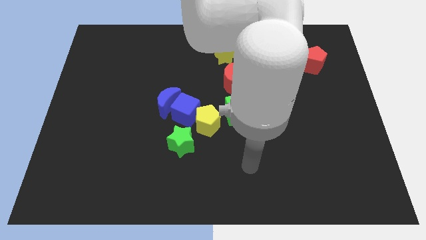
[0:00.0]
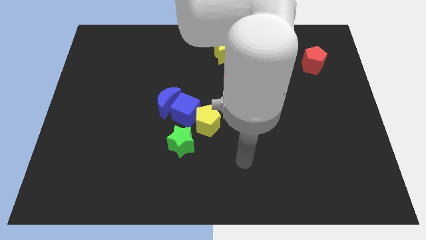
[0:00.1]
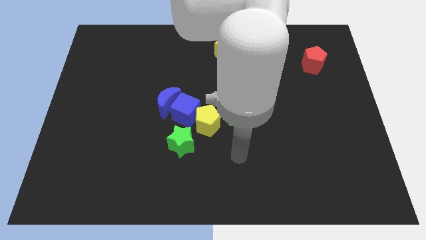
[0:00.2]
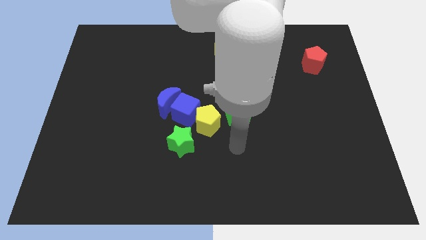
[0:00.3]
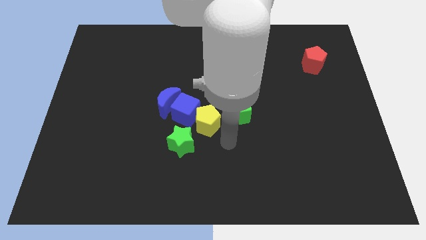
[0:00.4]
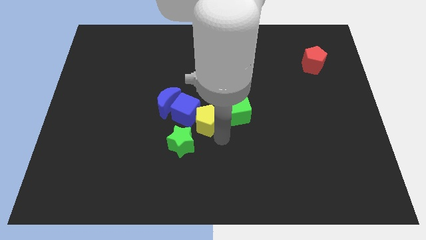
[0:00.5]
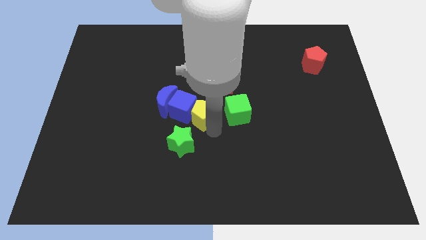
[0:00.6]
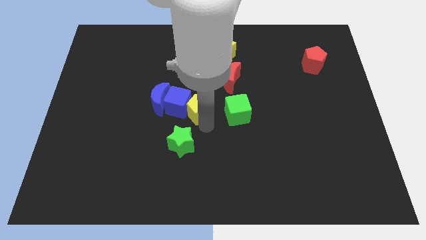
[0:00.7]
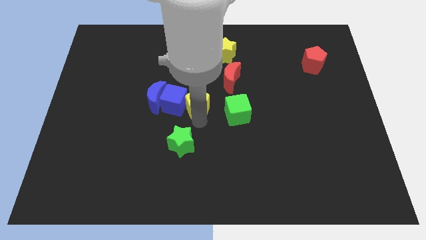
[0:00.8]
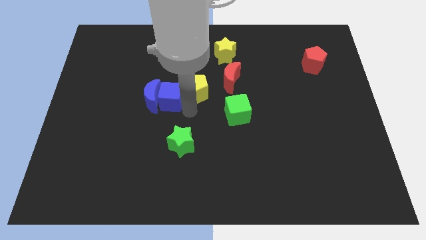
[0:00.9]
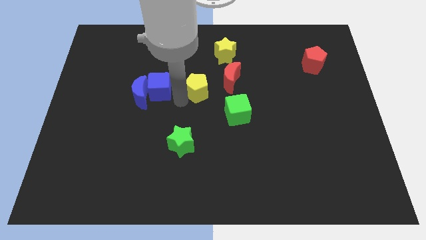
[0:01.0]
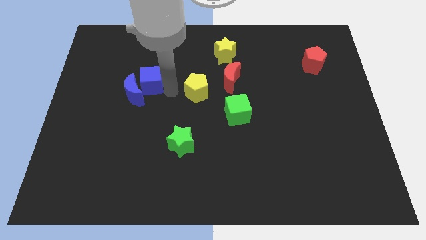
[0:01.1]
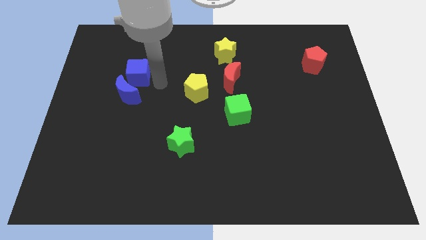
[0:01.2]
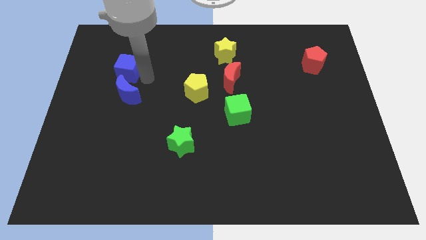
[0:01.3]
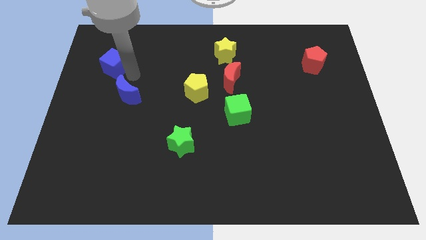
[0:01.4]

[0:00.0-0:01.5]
move the blue moon away from the blue cube

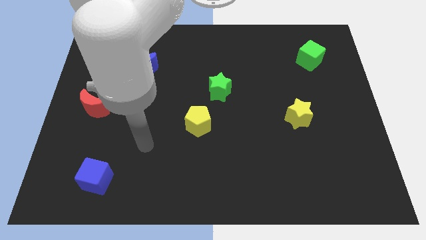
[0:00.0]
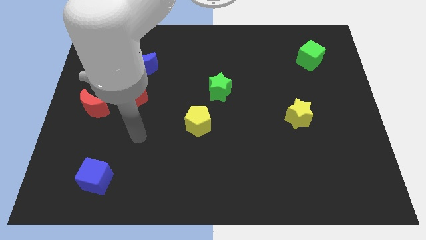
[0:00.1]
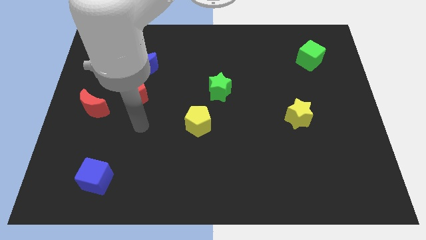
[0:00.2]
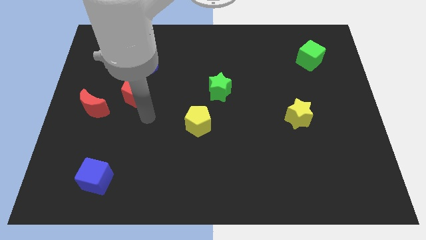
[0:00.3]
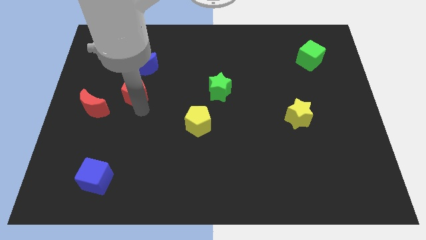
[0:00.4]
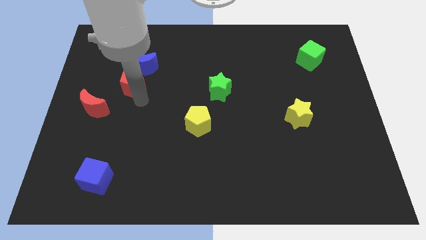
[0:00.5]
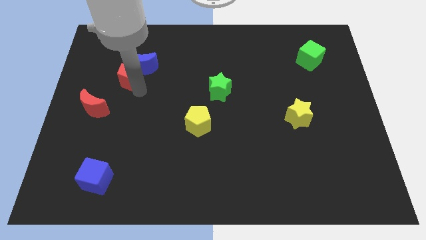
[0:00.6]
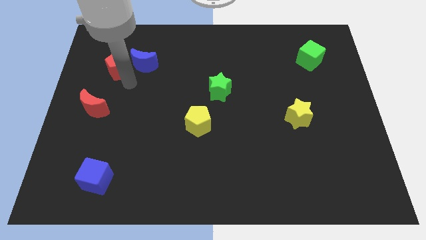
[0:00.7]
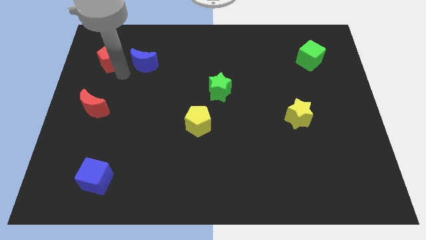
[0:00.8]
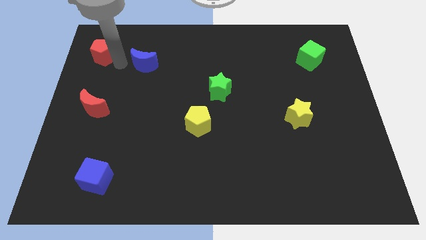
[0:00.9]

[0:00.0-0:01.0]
separate the blue moon from the red pentagon

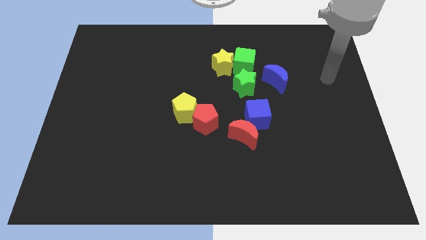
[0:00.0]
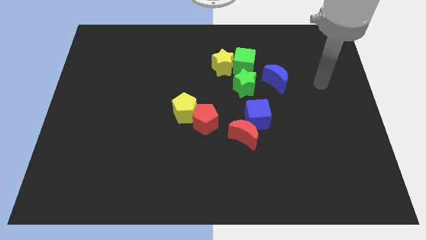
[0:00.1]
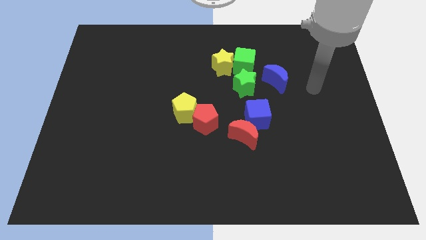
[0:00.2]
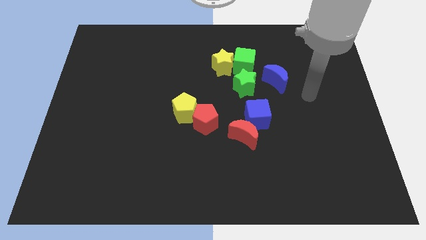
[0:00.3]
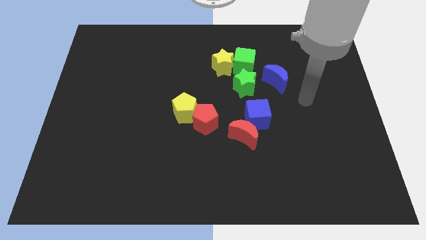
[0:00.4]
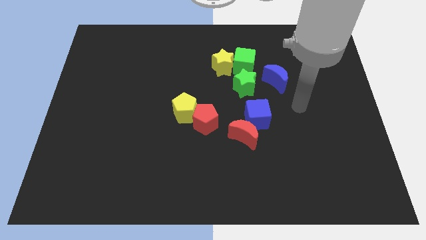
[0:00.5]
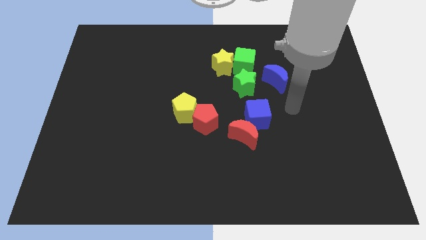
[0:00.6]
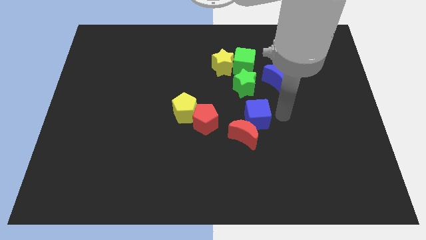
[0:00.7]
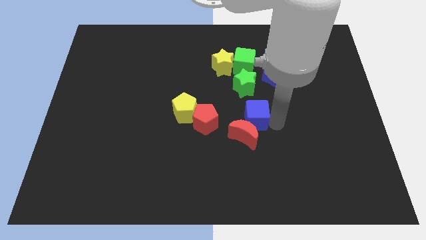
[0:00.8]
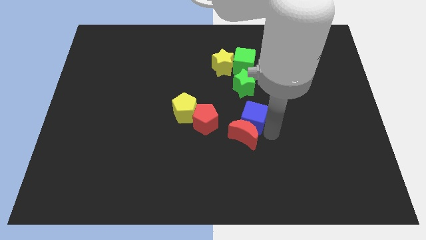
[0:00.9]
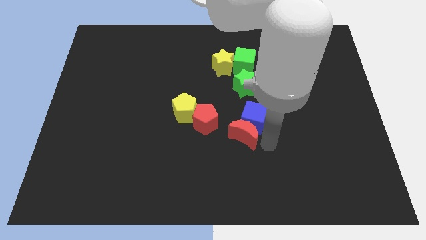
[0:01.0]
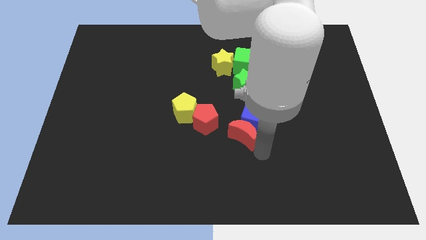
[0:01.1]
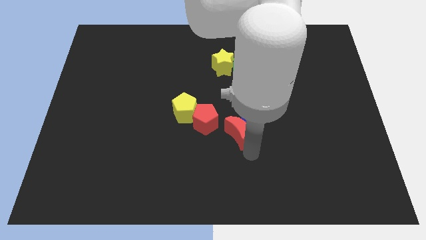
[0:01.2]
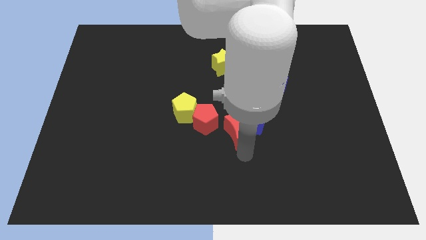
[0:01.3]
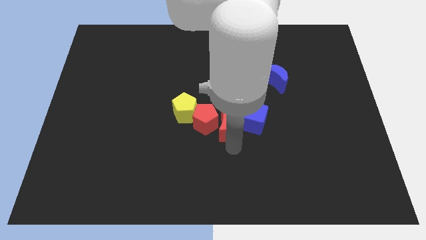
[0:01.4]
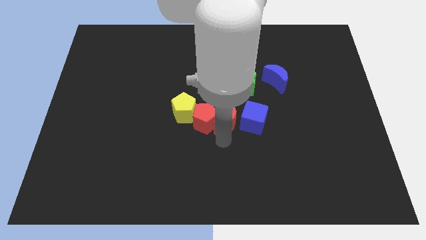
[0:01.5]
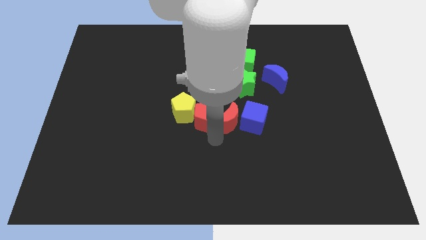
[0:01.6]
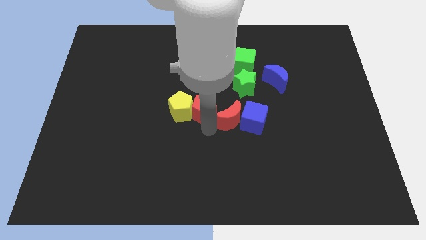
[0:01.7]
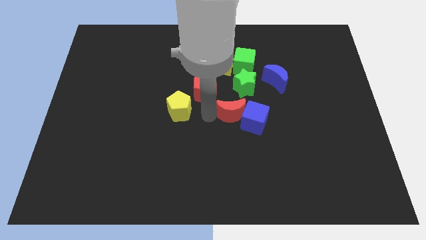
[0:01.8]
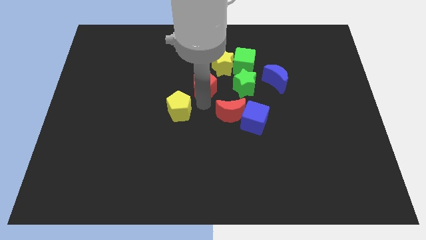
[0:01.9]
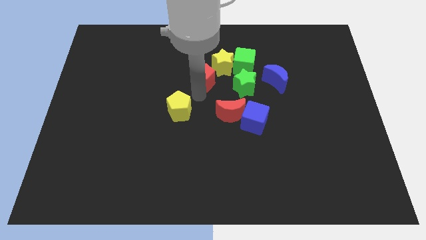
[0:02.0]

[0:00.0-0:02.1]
move the yellow pentagon away from the red pentagon

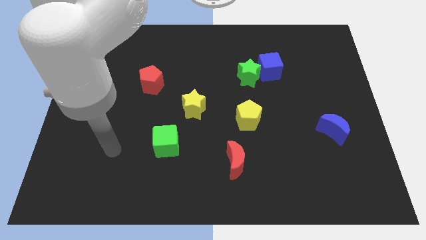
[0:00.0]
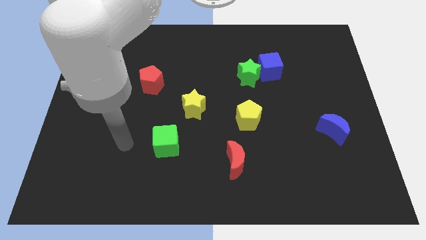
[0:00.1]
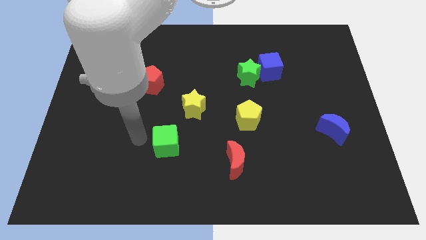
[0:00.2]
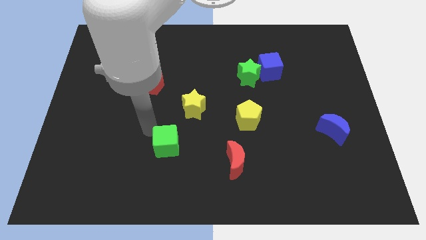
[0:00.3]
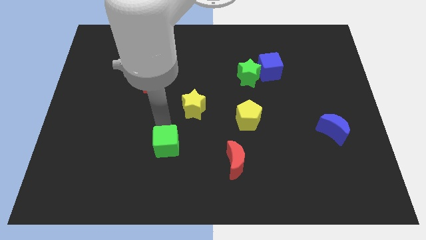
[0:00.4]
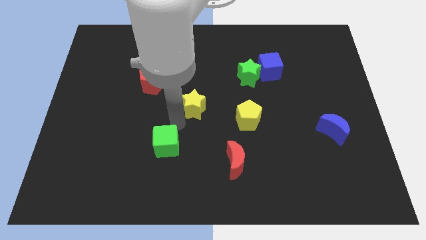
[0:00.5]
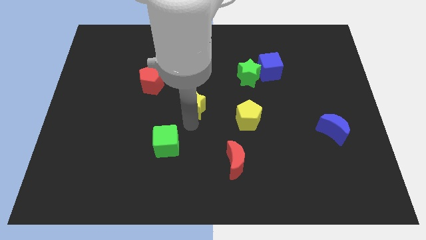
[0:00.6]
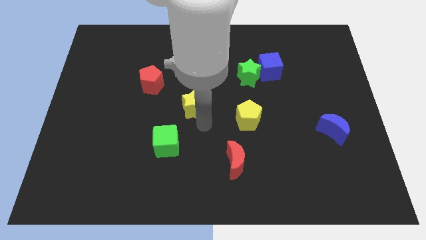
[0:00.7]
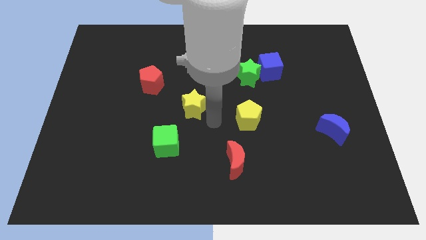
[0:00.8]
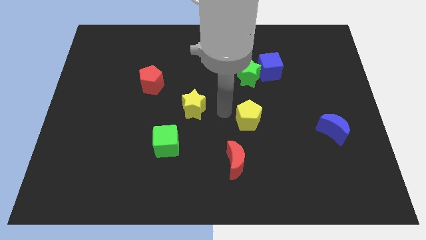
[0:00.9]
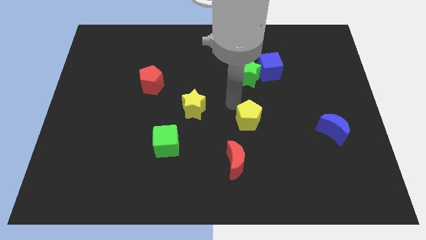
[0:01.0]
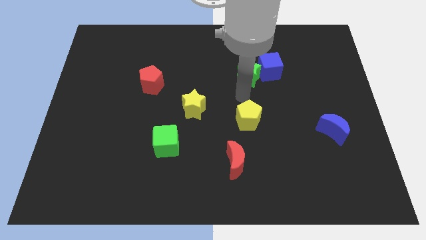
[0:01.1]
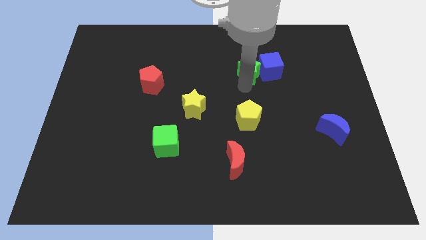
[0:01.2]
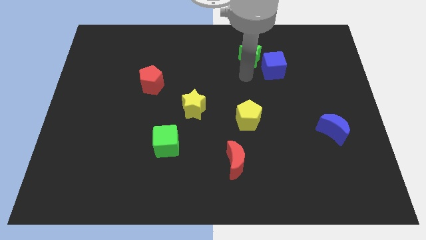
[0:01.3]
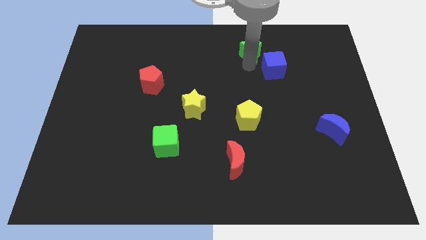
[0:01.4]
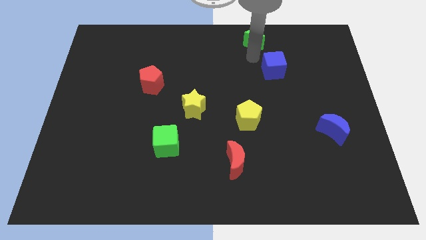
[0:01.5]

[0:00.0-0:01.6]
move the blue cube away from the green star

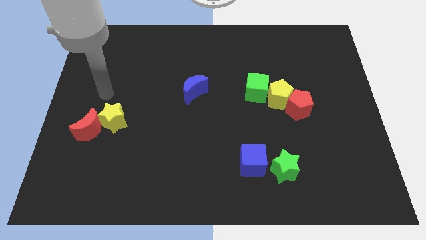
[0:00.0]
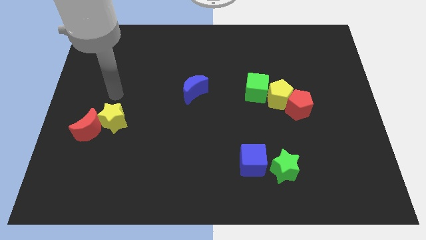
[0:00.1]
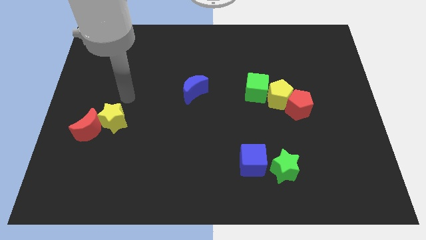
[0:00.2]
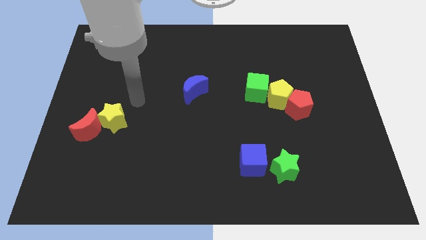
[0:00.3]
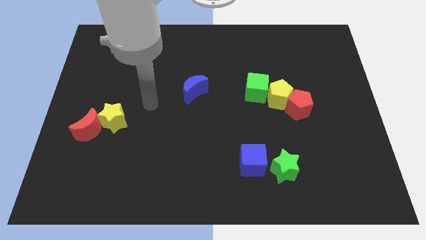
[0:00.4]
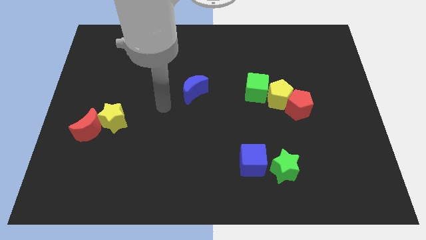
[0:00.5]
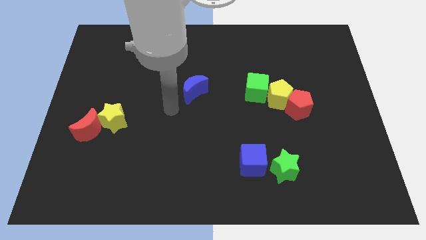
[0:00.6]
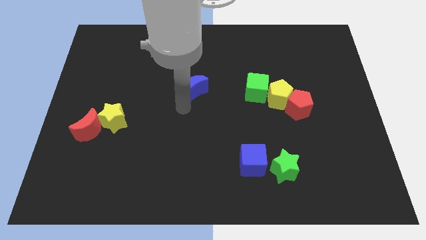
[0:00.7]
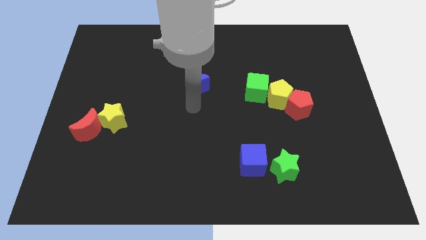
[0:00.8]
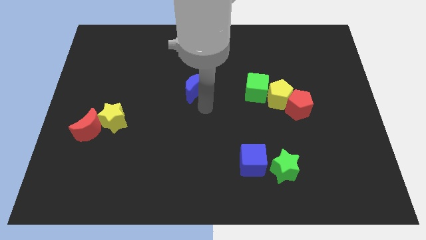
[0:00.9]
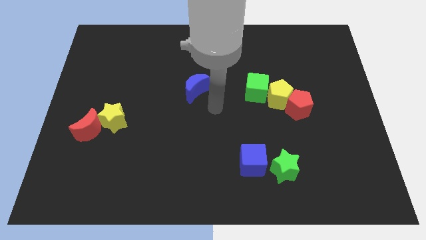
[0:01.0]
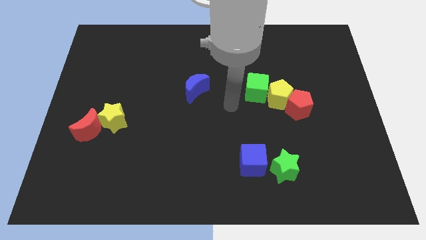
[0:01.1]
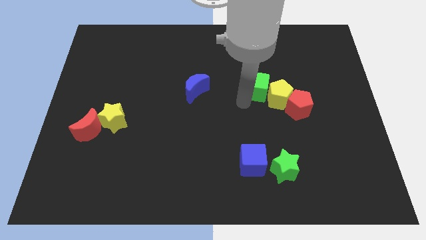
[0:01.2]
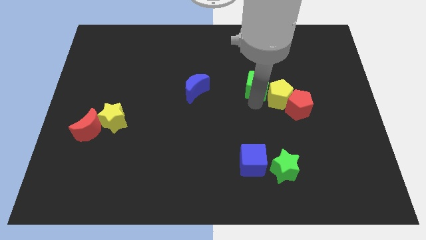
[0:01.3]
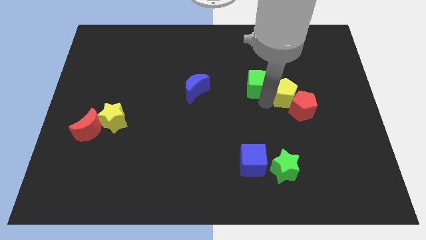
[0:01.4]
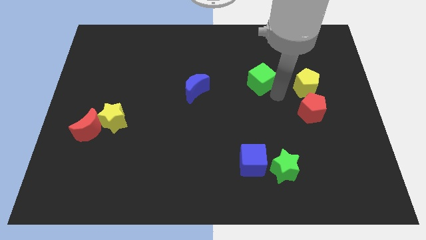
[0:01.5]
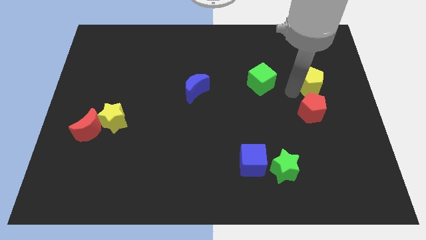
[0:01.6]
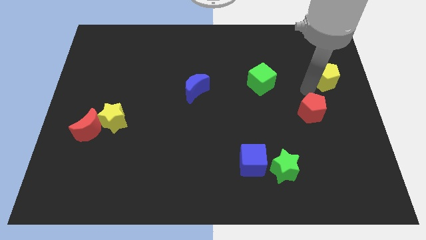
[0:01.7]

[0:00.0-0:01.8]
separate the red pentagon from the yellow pentagon

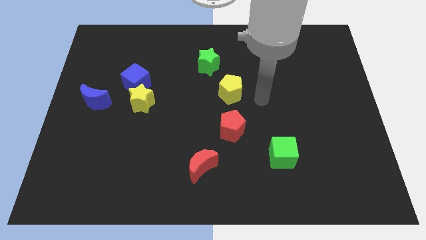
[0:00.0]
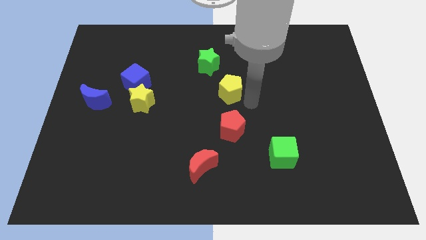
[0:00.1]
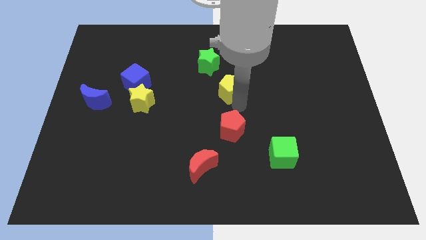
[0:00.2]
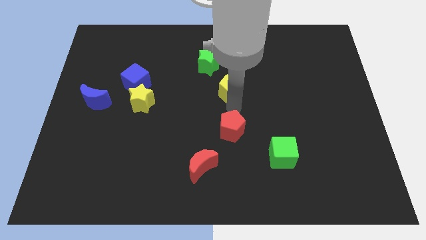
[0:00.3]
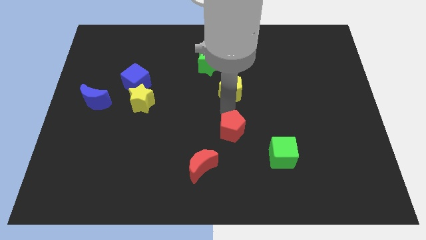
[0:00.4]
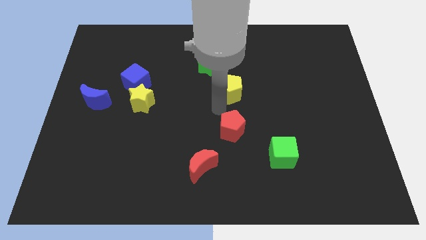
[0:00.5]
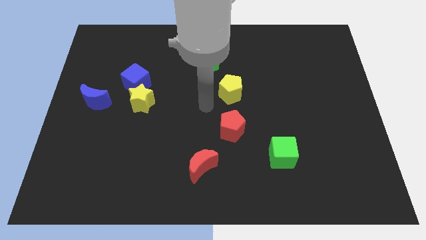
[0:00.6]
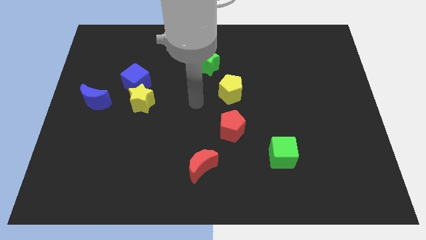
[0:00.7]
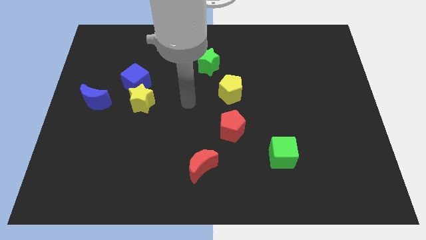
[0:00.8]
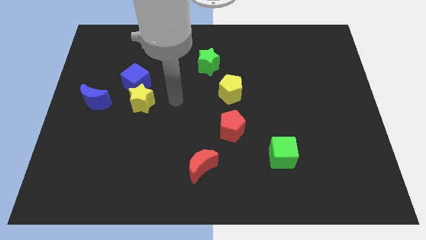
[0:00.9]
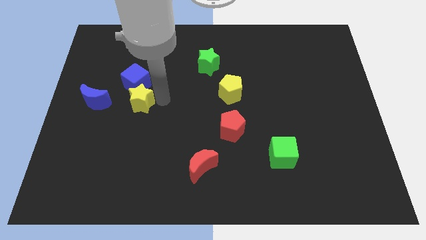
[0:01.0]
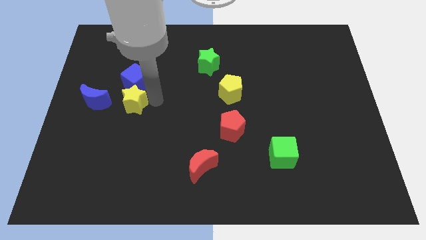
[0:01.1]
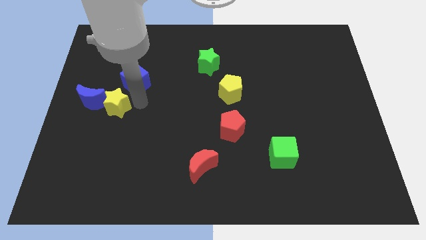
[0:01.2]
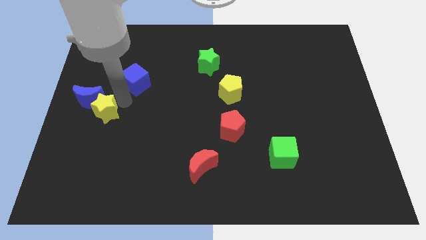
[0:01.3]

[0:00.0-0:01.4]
pull the blue cube apart from the yellow star
